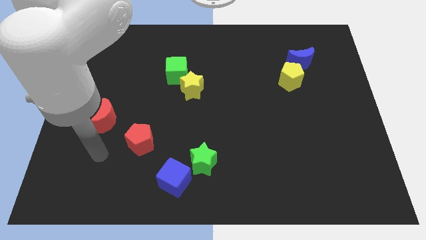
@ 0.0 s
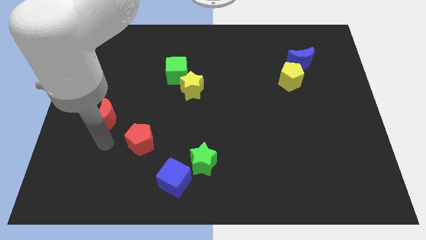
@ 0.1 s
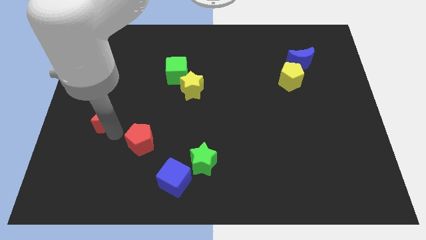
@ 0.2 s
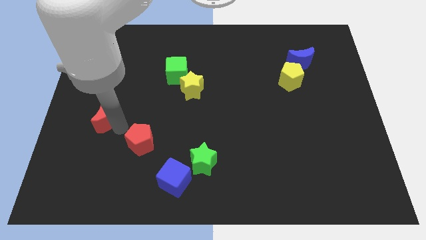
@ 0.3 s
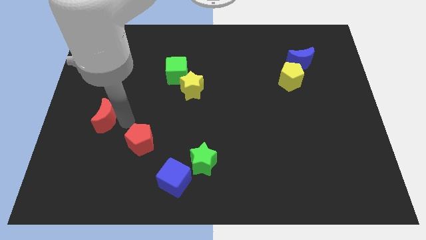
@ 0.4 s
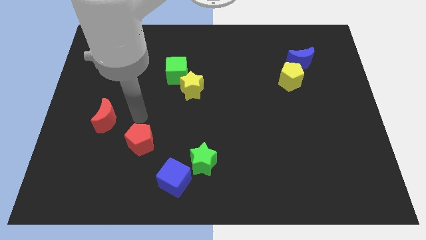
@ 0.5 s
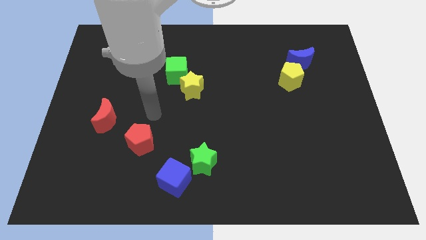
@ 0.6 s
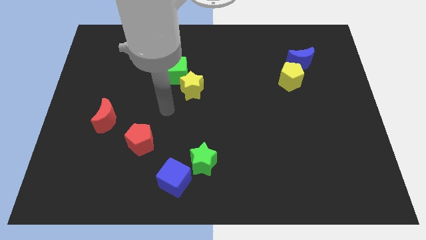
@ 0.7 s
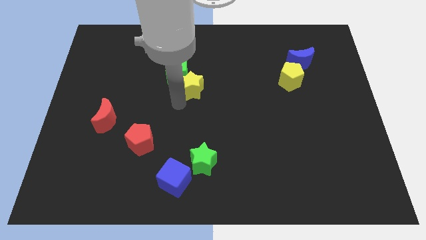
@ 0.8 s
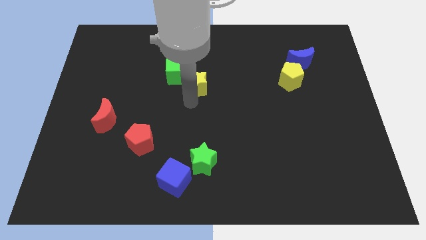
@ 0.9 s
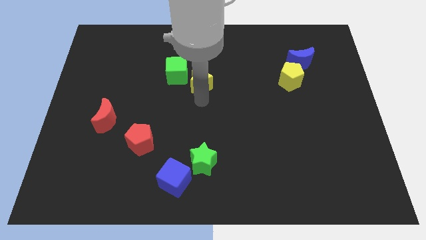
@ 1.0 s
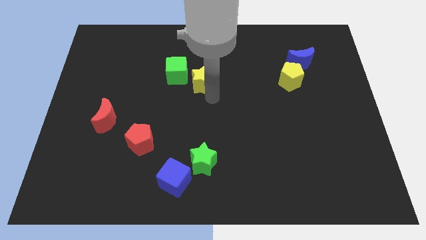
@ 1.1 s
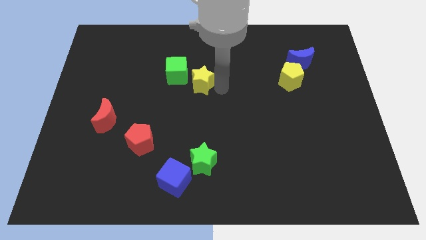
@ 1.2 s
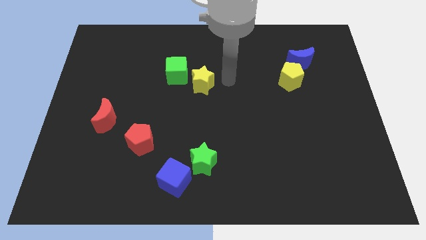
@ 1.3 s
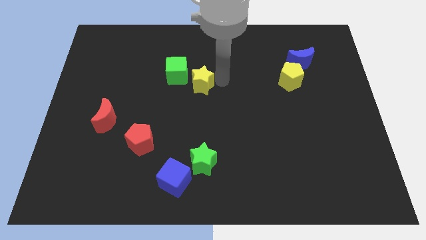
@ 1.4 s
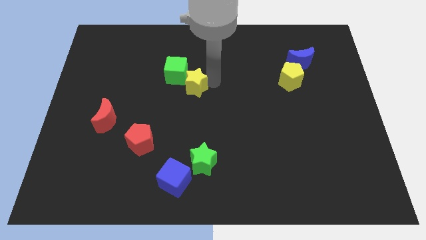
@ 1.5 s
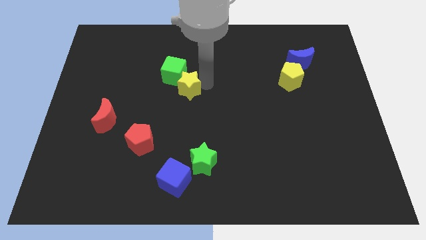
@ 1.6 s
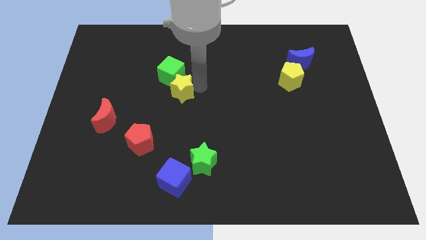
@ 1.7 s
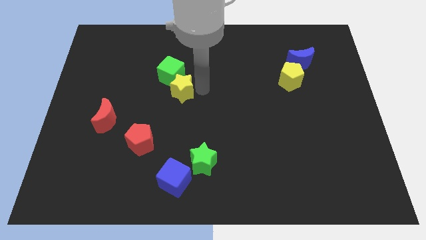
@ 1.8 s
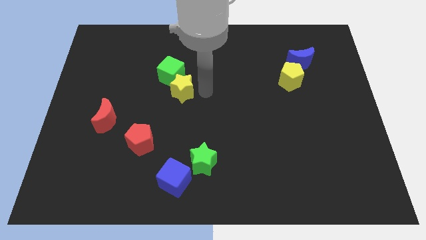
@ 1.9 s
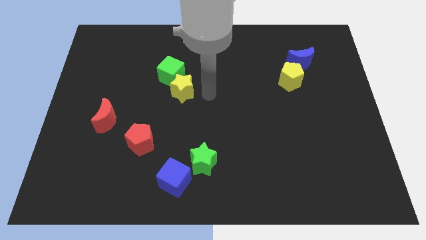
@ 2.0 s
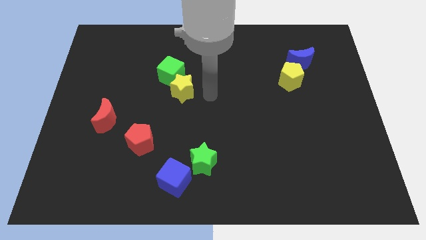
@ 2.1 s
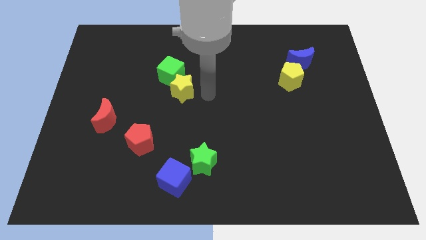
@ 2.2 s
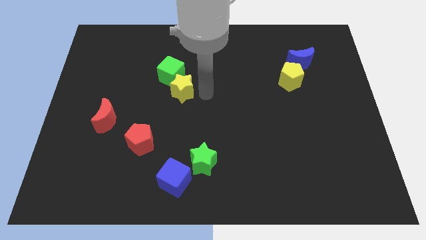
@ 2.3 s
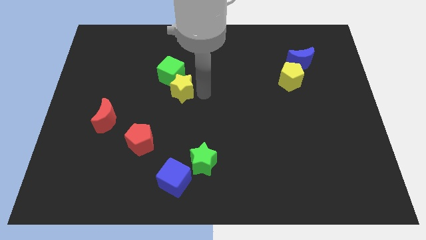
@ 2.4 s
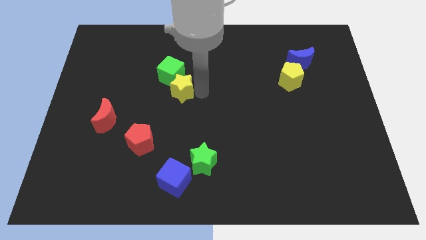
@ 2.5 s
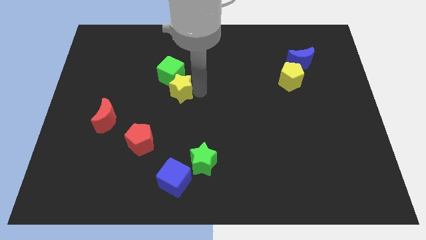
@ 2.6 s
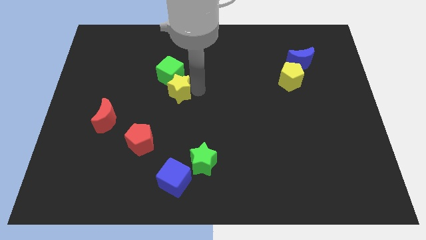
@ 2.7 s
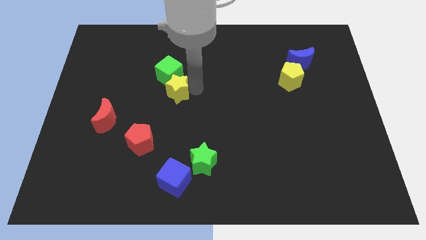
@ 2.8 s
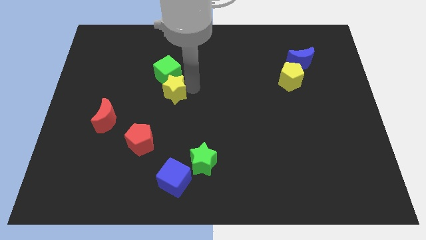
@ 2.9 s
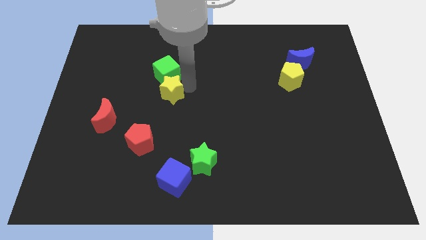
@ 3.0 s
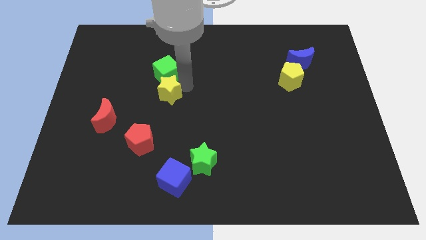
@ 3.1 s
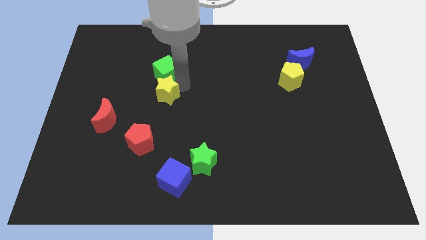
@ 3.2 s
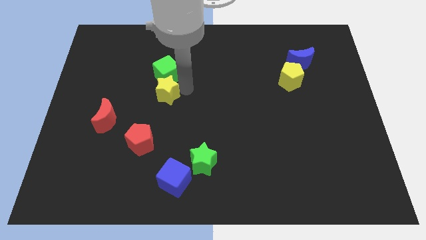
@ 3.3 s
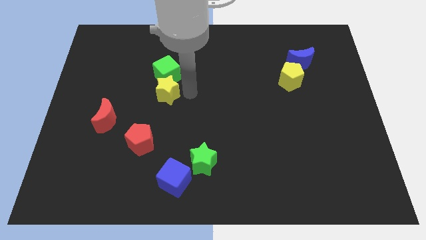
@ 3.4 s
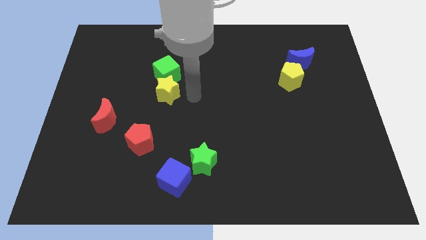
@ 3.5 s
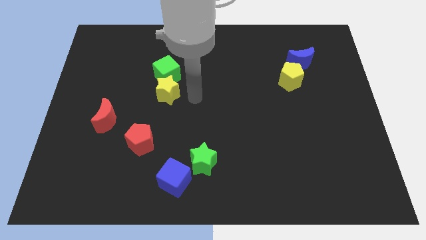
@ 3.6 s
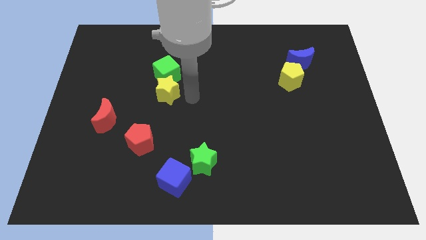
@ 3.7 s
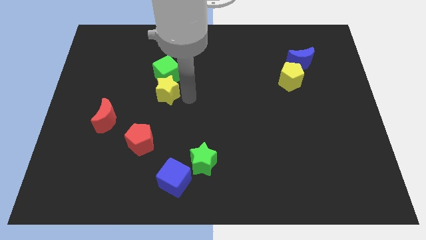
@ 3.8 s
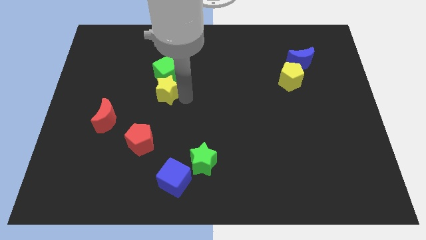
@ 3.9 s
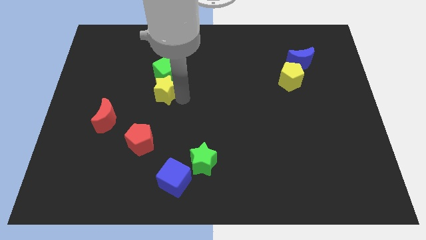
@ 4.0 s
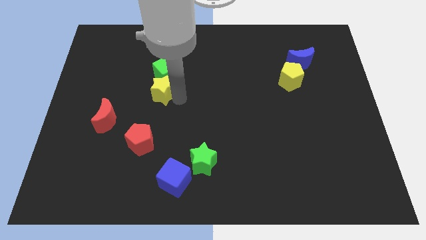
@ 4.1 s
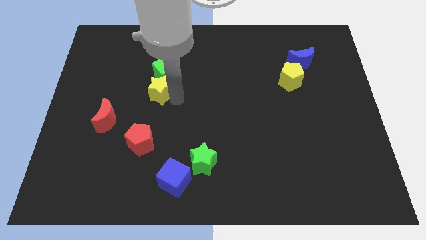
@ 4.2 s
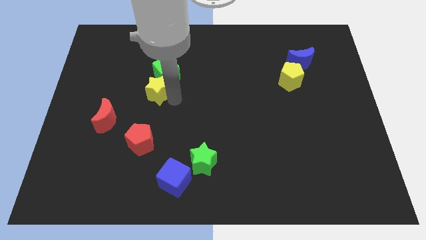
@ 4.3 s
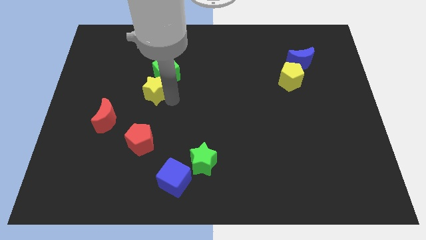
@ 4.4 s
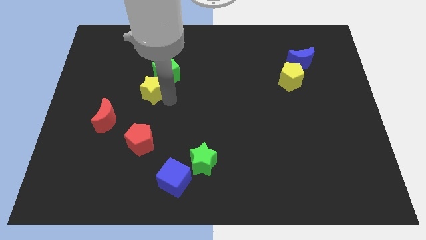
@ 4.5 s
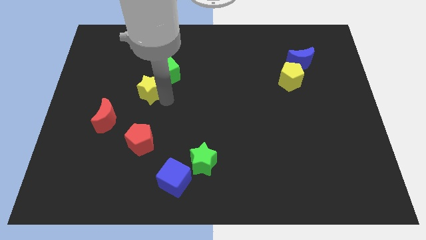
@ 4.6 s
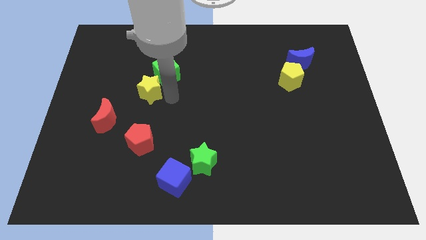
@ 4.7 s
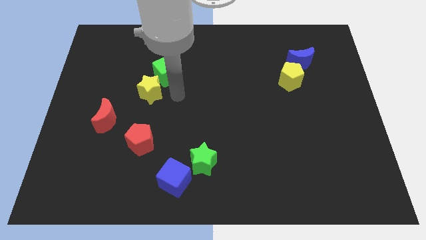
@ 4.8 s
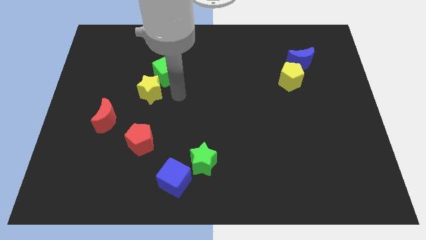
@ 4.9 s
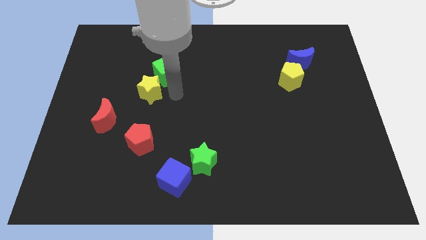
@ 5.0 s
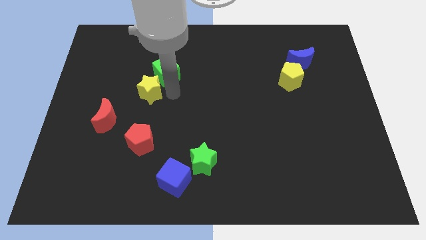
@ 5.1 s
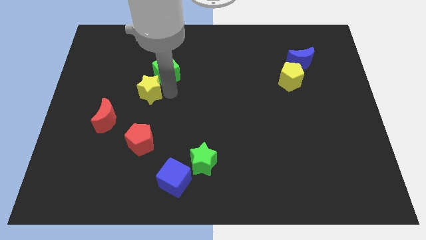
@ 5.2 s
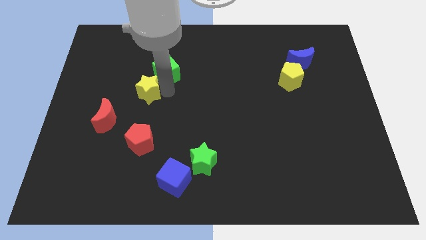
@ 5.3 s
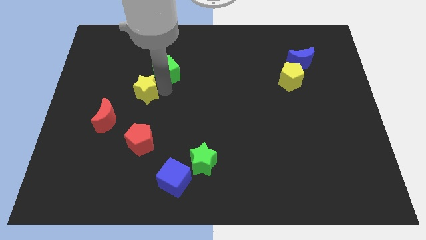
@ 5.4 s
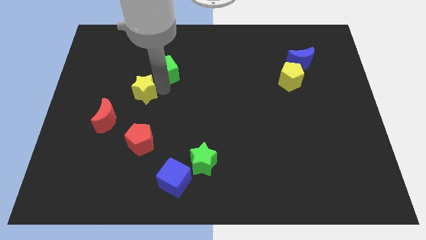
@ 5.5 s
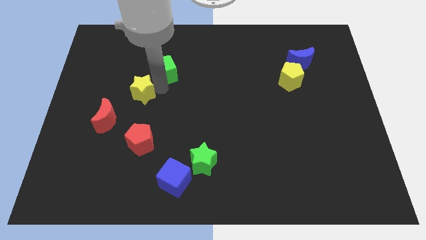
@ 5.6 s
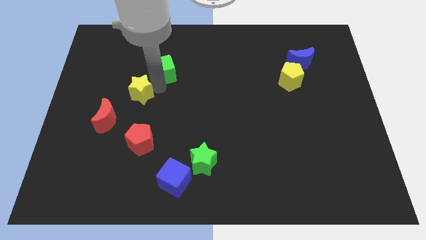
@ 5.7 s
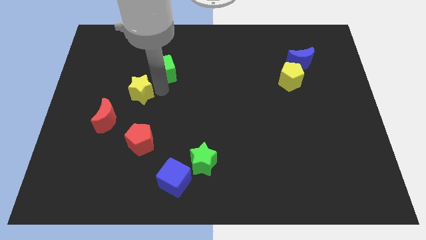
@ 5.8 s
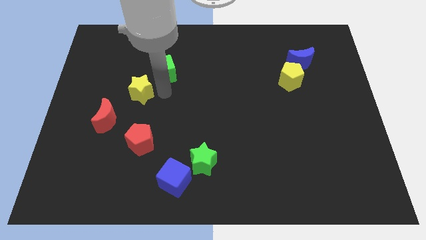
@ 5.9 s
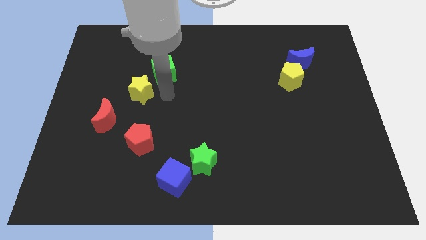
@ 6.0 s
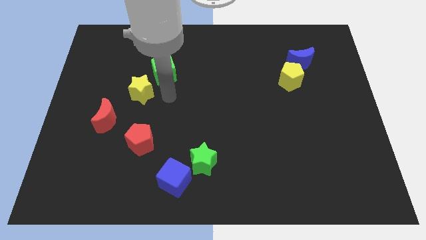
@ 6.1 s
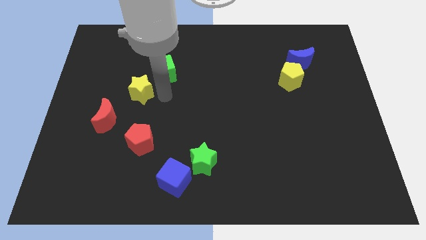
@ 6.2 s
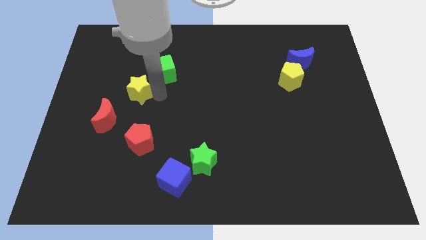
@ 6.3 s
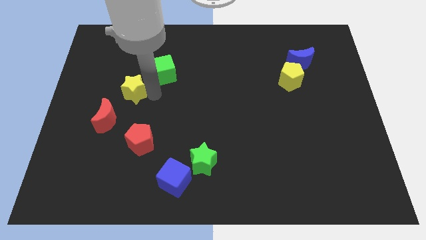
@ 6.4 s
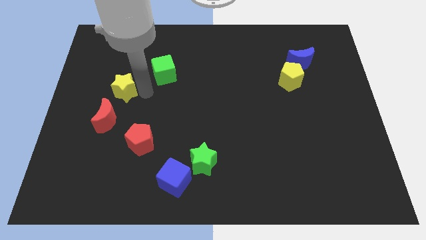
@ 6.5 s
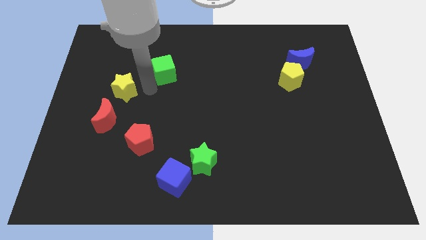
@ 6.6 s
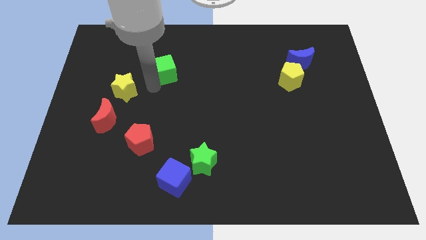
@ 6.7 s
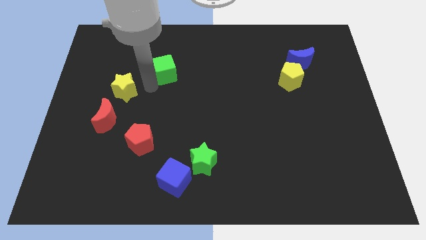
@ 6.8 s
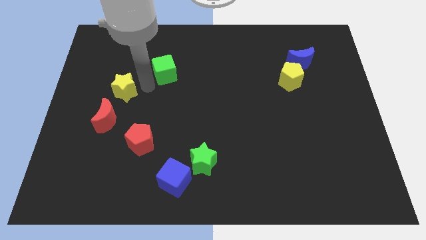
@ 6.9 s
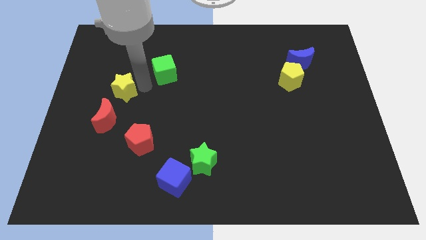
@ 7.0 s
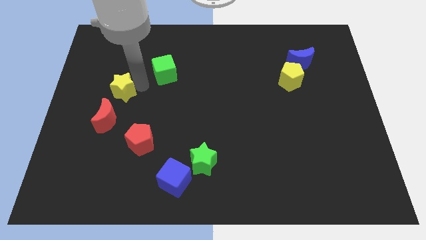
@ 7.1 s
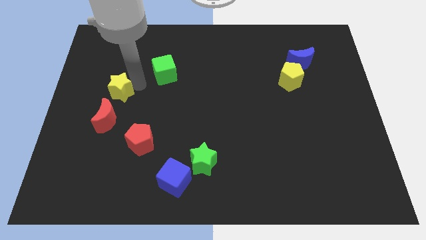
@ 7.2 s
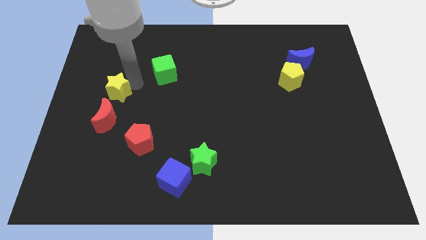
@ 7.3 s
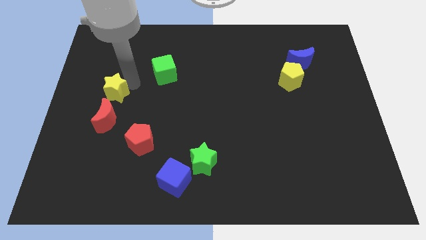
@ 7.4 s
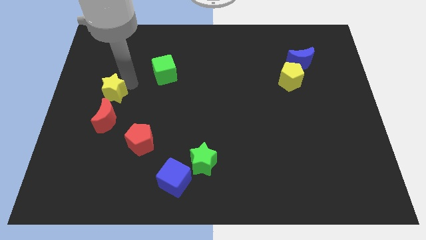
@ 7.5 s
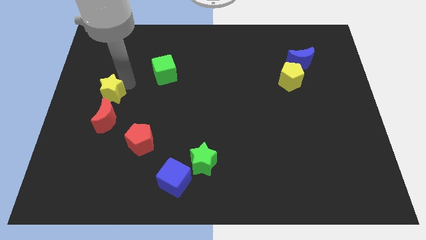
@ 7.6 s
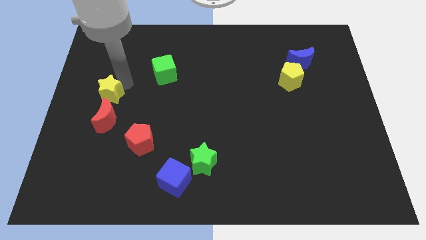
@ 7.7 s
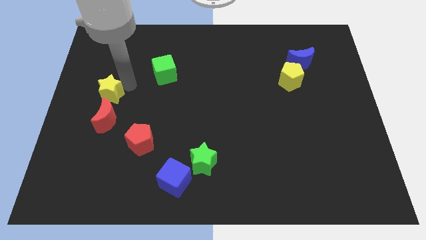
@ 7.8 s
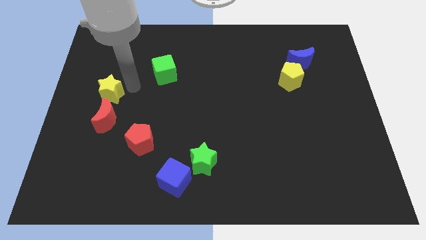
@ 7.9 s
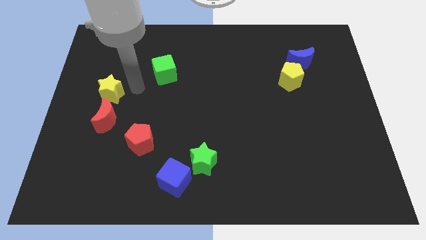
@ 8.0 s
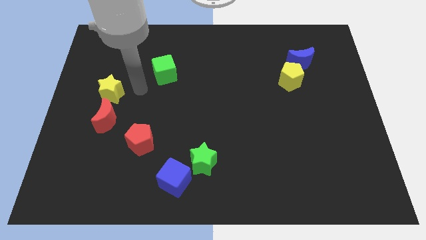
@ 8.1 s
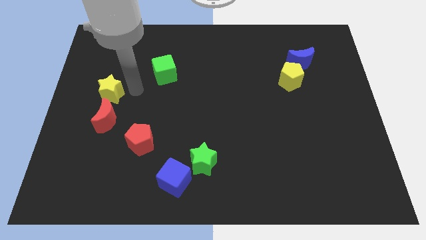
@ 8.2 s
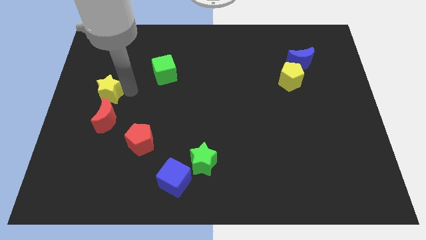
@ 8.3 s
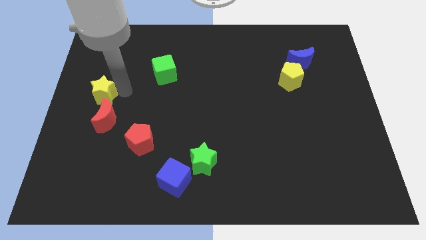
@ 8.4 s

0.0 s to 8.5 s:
move the yellow star to the left side
